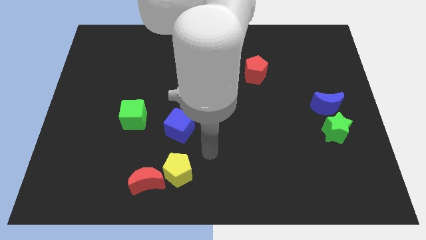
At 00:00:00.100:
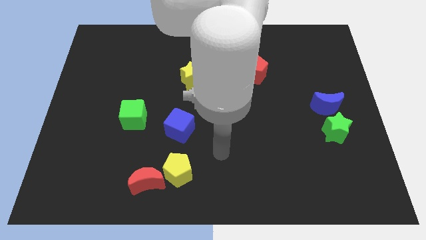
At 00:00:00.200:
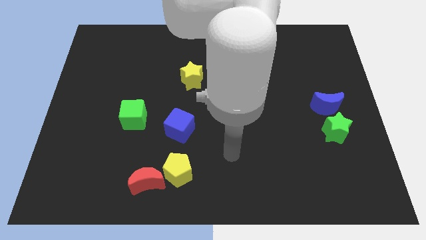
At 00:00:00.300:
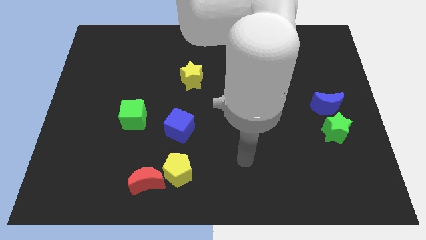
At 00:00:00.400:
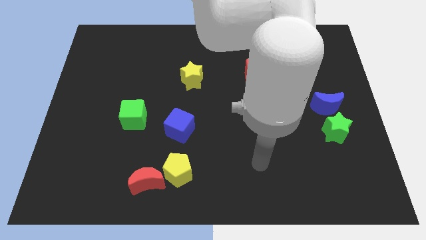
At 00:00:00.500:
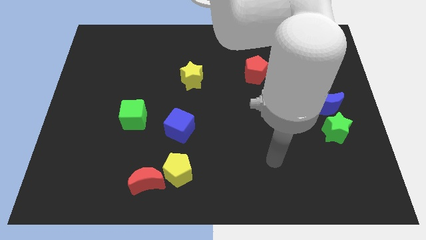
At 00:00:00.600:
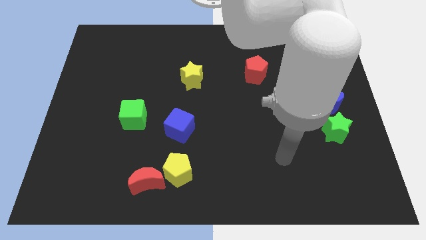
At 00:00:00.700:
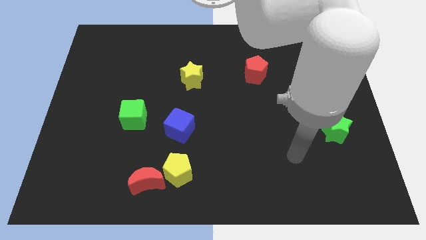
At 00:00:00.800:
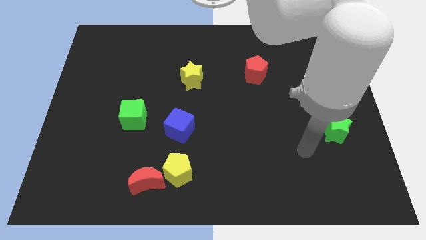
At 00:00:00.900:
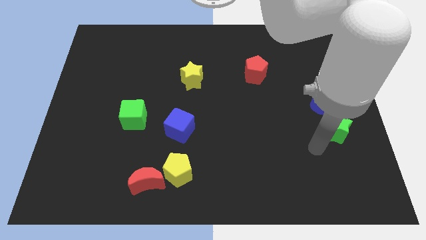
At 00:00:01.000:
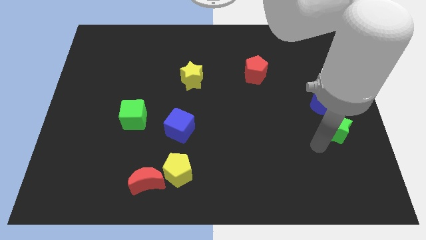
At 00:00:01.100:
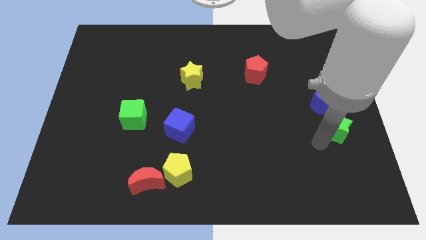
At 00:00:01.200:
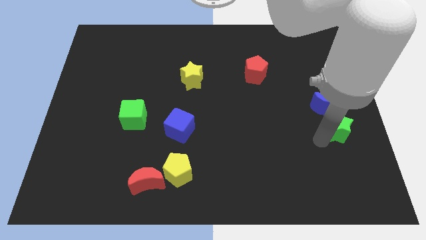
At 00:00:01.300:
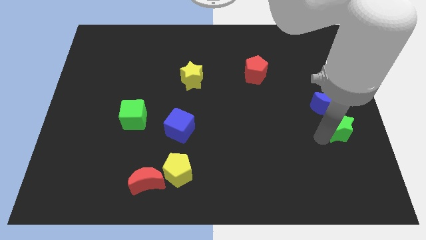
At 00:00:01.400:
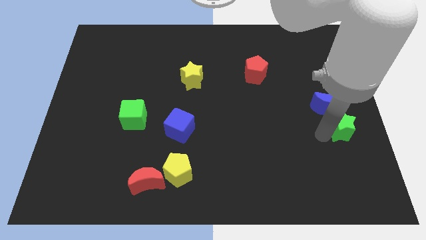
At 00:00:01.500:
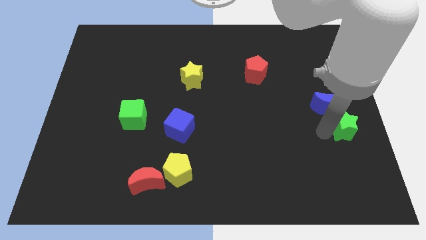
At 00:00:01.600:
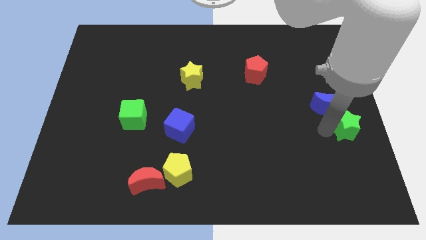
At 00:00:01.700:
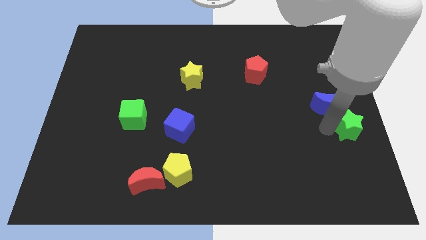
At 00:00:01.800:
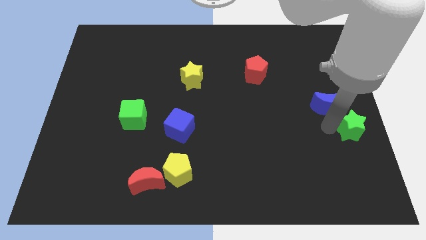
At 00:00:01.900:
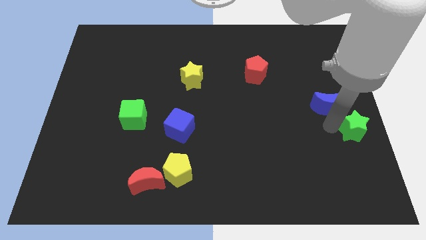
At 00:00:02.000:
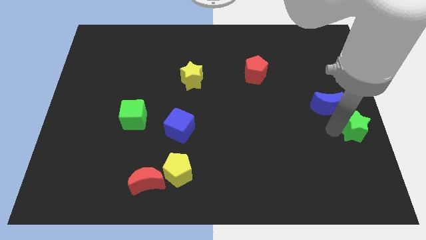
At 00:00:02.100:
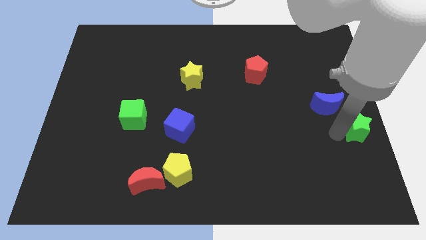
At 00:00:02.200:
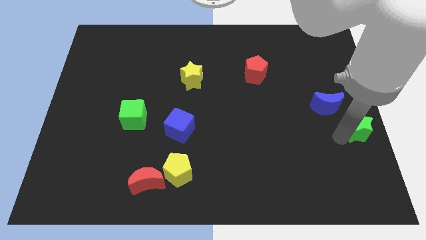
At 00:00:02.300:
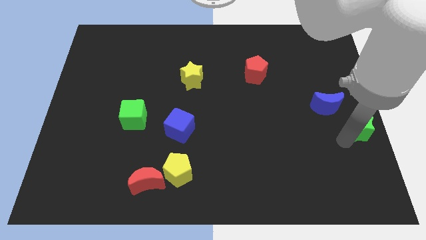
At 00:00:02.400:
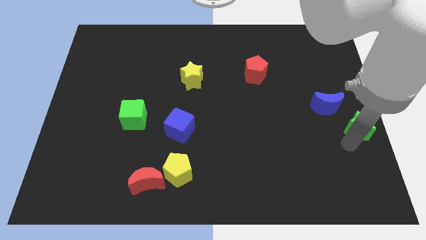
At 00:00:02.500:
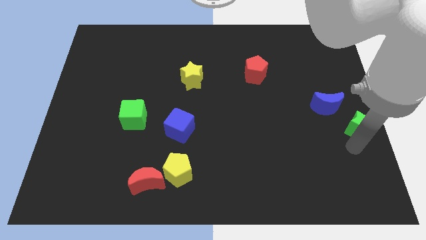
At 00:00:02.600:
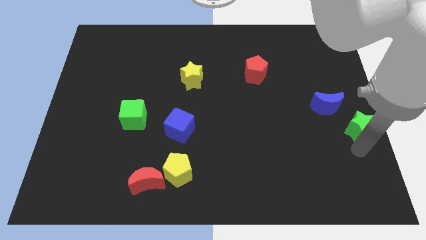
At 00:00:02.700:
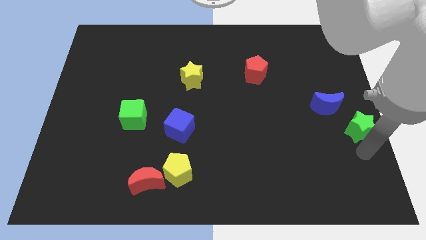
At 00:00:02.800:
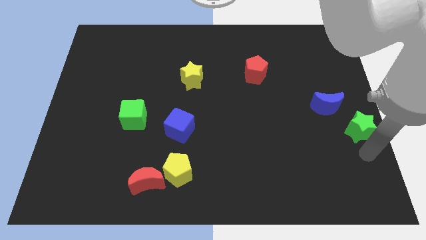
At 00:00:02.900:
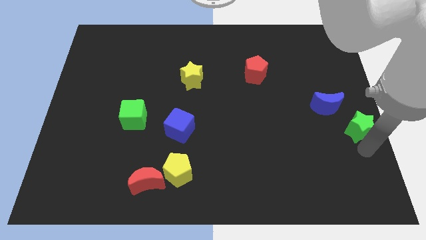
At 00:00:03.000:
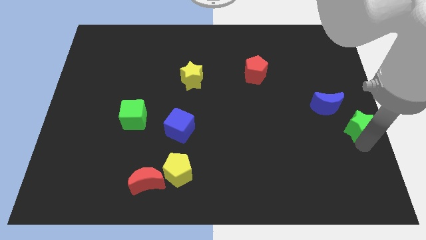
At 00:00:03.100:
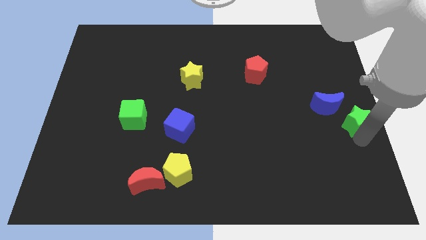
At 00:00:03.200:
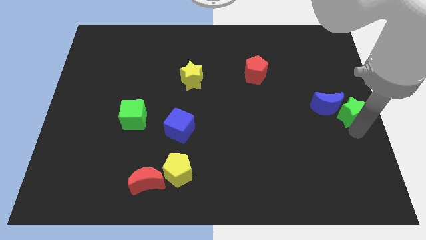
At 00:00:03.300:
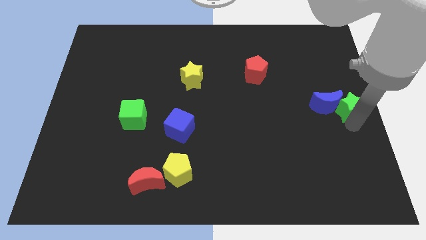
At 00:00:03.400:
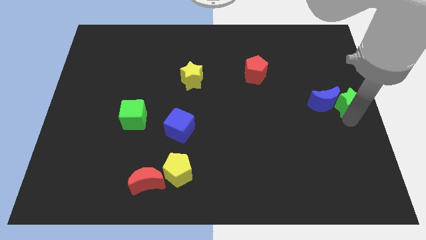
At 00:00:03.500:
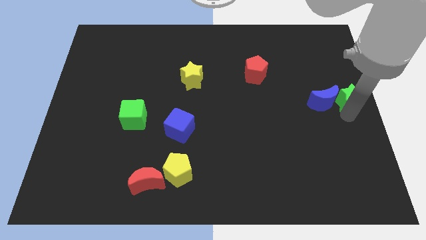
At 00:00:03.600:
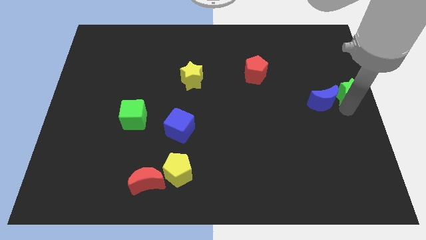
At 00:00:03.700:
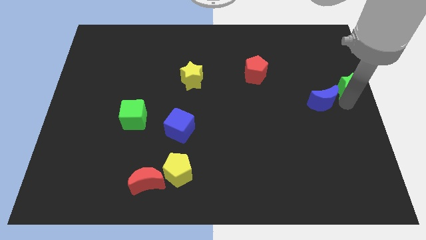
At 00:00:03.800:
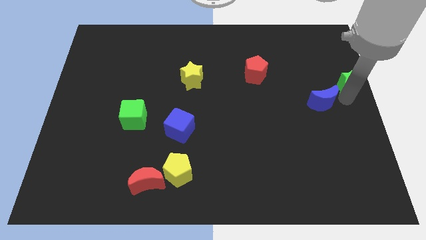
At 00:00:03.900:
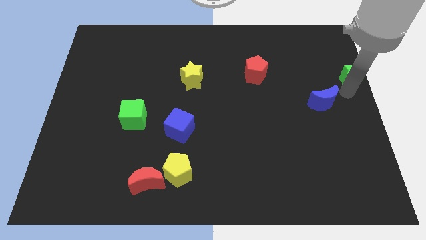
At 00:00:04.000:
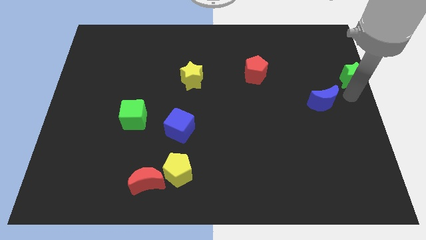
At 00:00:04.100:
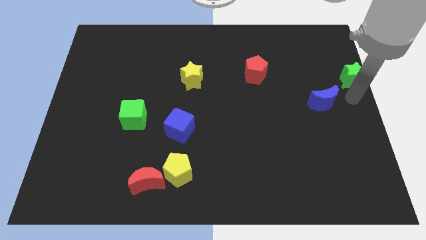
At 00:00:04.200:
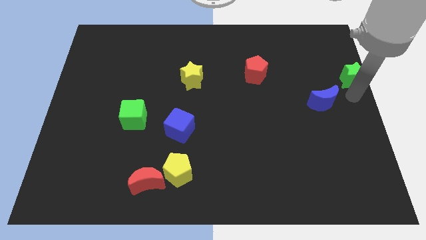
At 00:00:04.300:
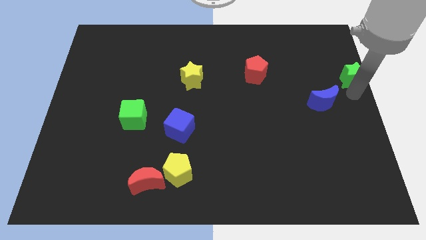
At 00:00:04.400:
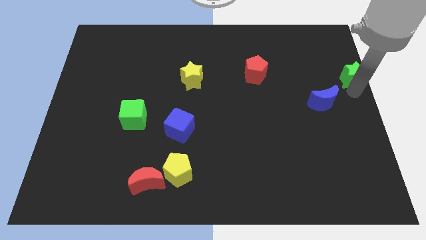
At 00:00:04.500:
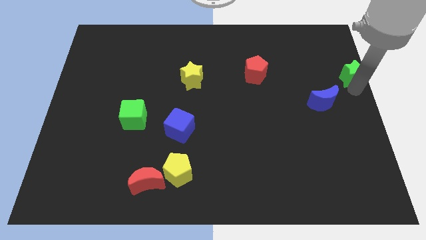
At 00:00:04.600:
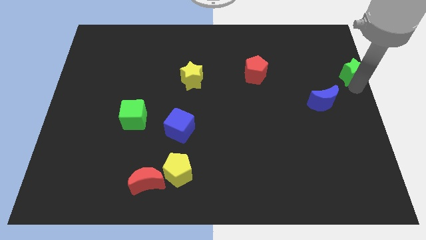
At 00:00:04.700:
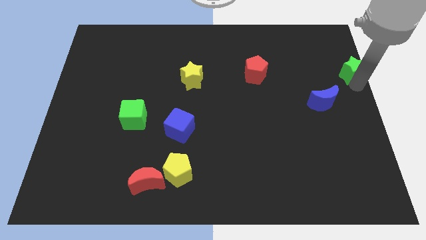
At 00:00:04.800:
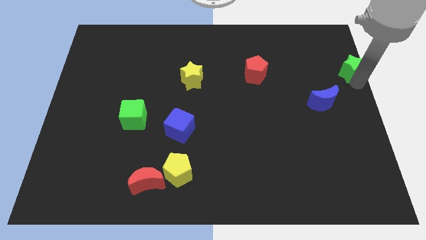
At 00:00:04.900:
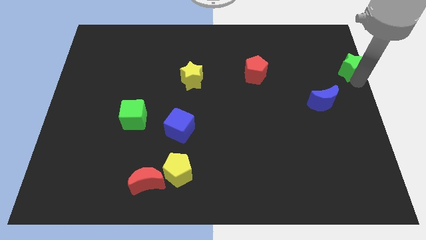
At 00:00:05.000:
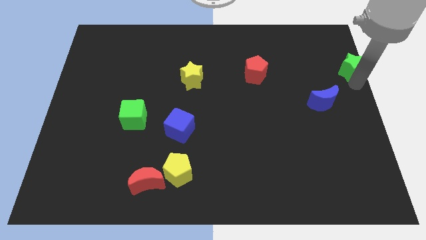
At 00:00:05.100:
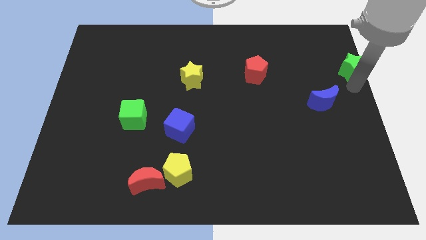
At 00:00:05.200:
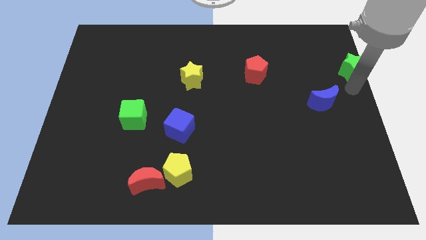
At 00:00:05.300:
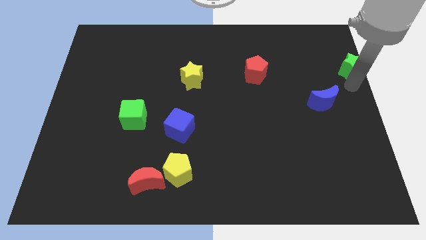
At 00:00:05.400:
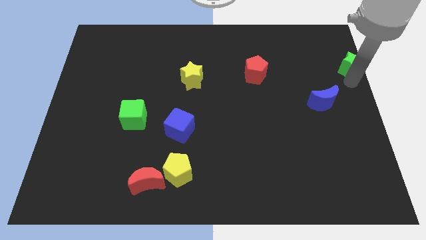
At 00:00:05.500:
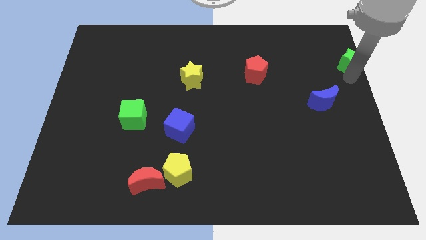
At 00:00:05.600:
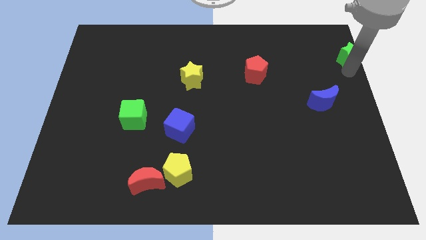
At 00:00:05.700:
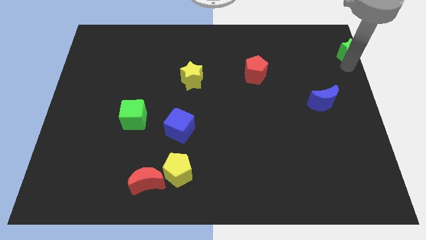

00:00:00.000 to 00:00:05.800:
put the green star to the top right

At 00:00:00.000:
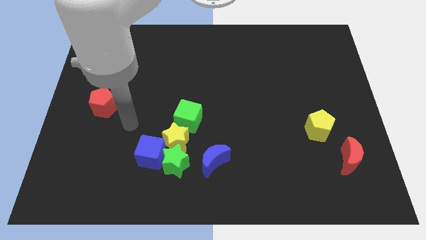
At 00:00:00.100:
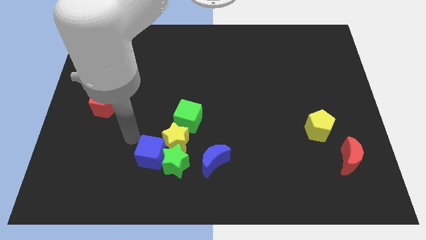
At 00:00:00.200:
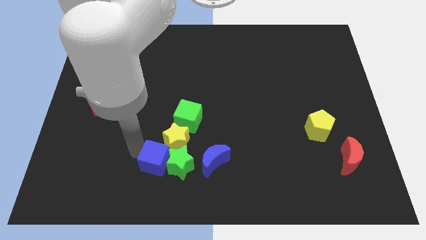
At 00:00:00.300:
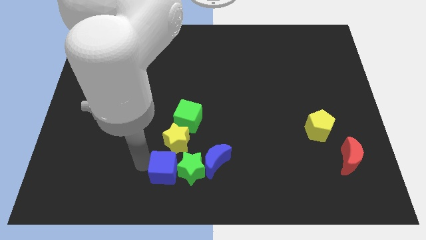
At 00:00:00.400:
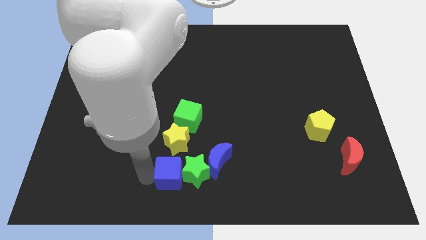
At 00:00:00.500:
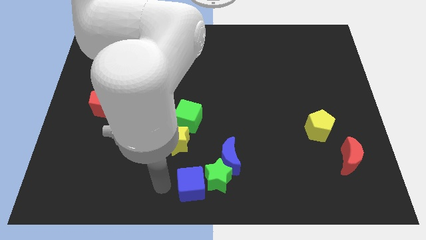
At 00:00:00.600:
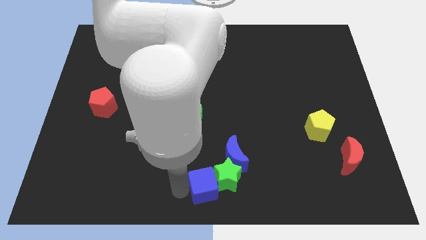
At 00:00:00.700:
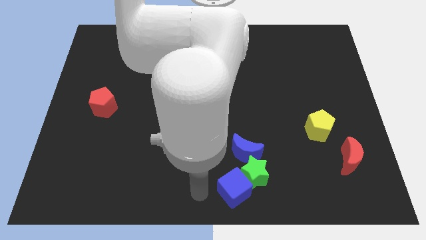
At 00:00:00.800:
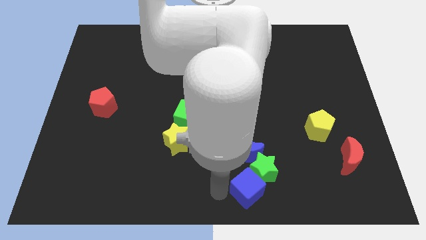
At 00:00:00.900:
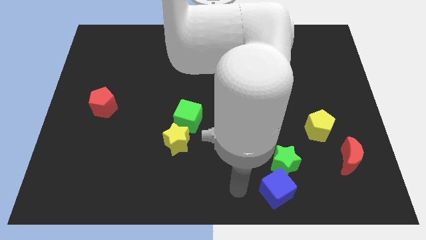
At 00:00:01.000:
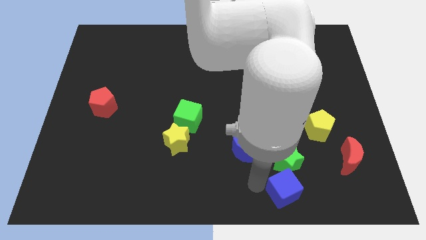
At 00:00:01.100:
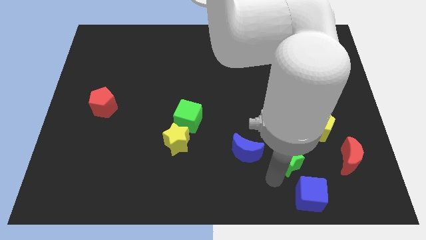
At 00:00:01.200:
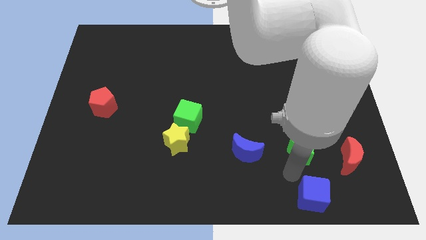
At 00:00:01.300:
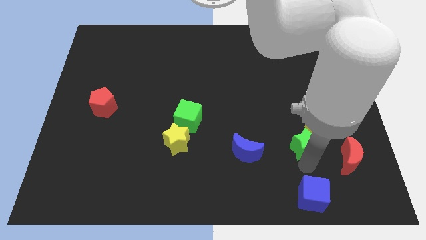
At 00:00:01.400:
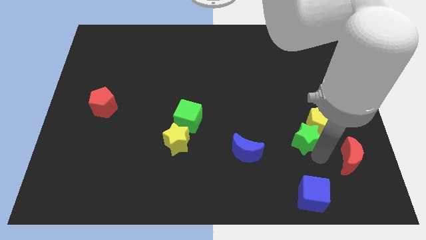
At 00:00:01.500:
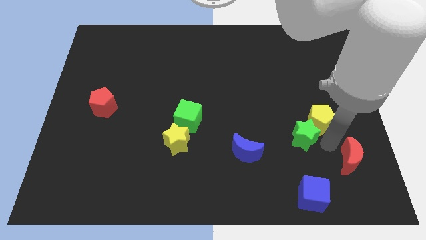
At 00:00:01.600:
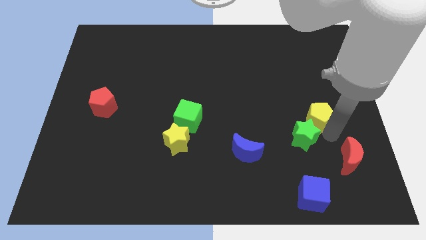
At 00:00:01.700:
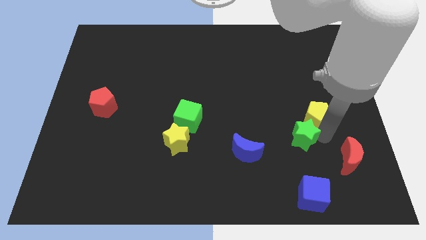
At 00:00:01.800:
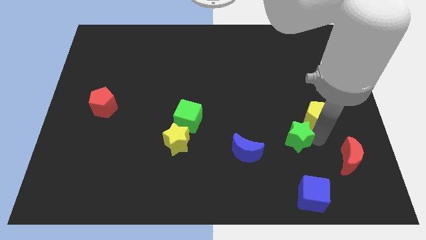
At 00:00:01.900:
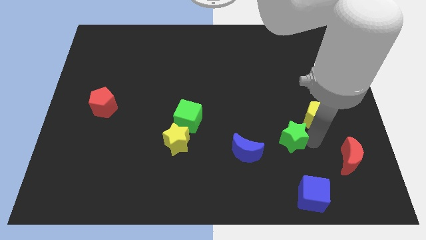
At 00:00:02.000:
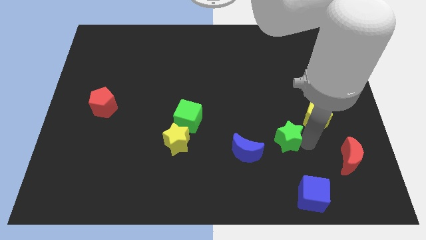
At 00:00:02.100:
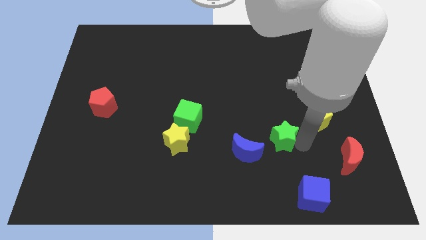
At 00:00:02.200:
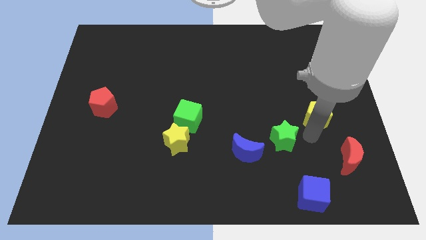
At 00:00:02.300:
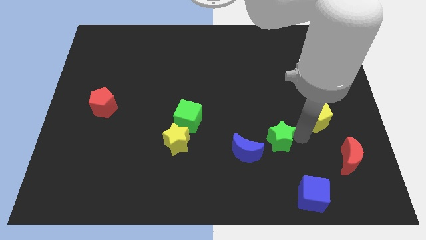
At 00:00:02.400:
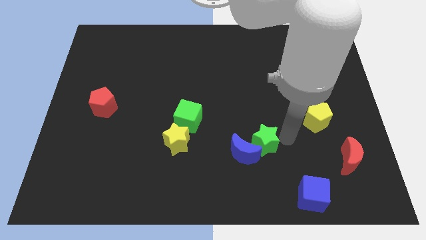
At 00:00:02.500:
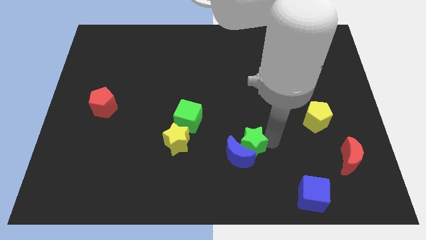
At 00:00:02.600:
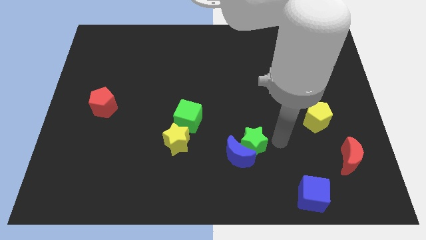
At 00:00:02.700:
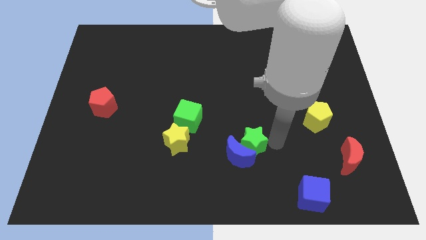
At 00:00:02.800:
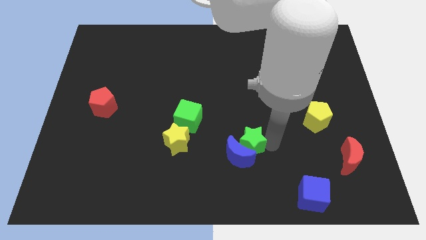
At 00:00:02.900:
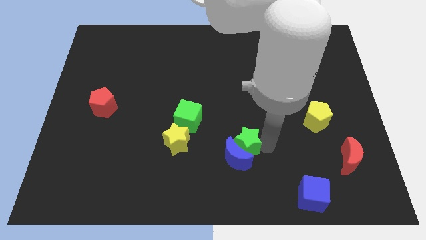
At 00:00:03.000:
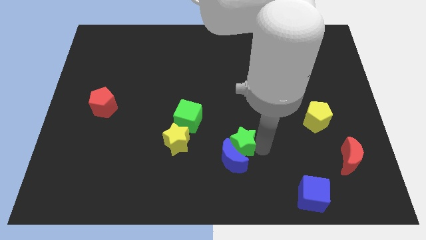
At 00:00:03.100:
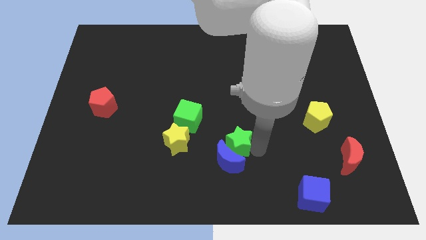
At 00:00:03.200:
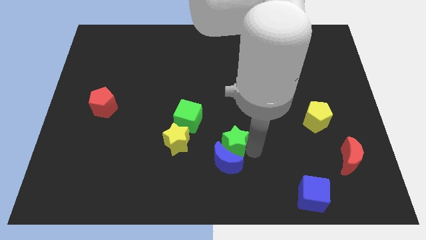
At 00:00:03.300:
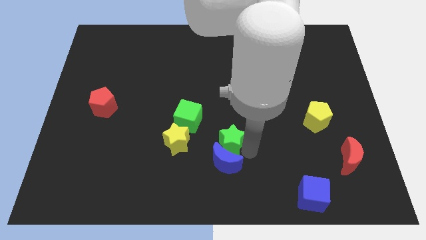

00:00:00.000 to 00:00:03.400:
move the green star to the center of the board
